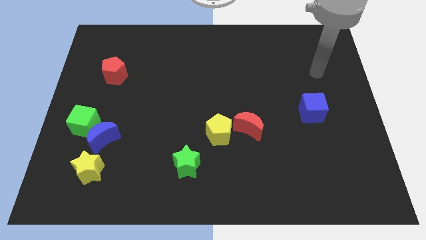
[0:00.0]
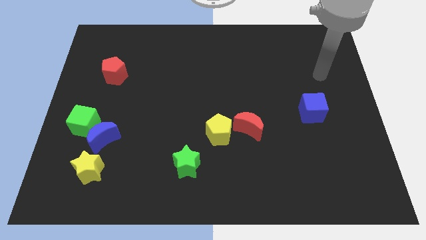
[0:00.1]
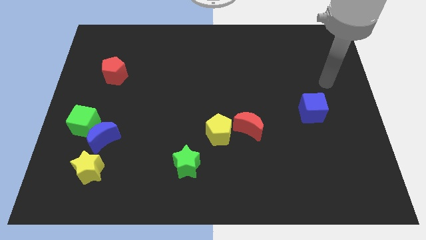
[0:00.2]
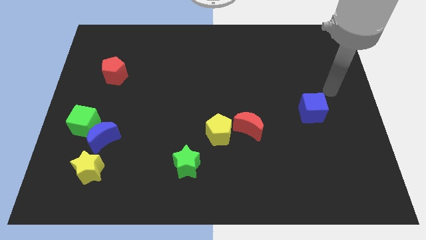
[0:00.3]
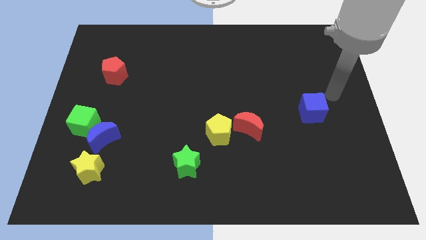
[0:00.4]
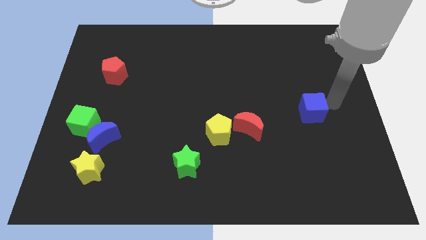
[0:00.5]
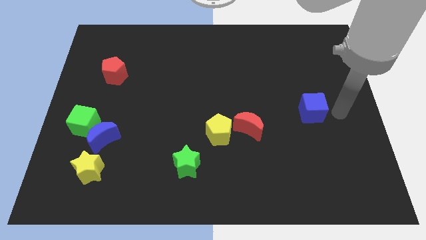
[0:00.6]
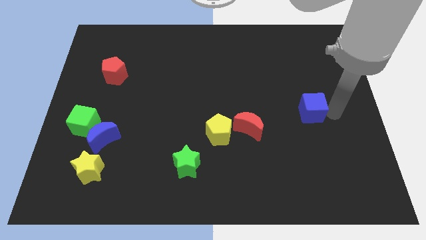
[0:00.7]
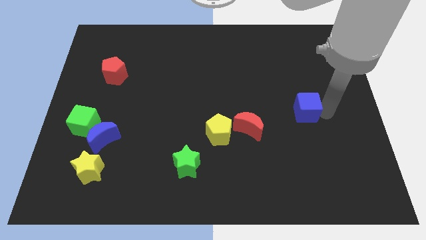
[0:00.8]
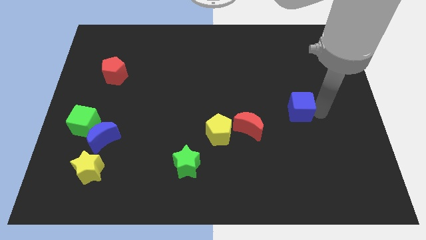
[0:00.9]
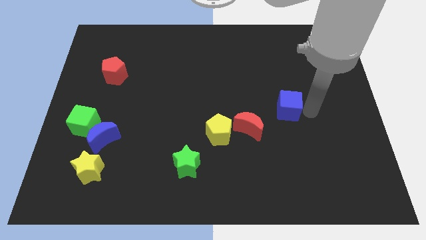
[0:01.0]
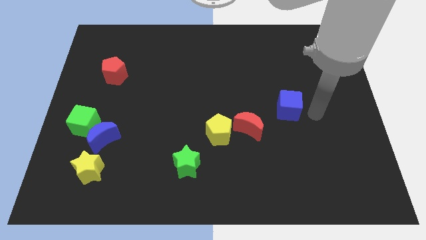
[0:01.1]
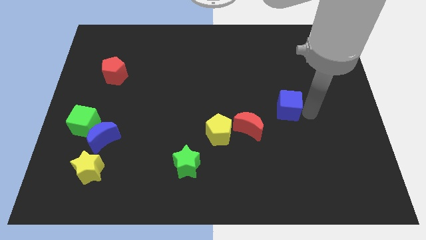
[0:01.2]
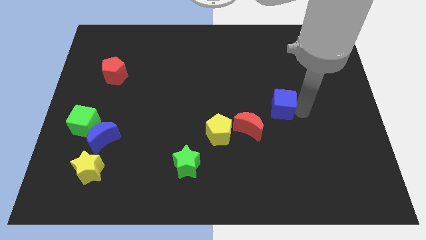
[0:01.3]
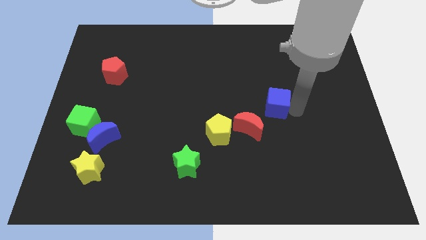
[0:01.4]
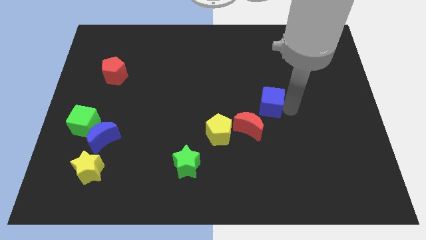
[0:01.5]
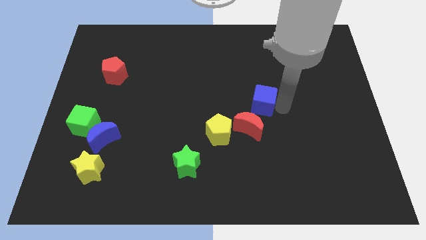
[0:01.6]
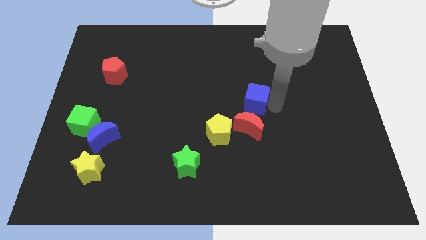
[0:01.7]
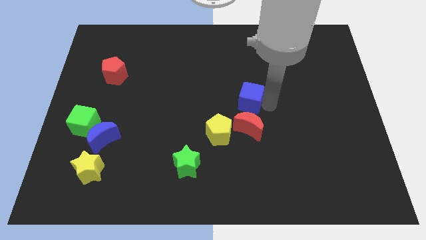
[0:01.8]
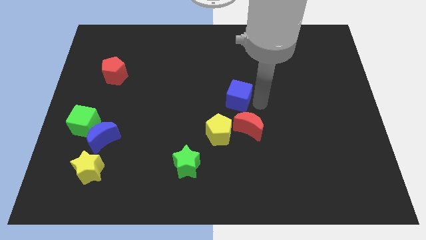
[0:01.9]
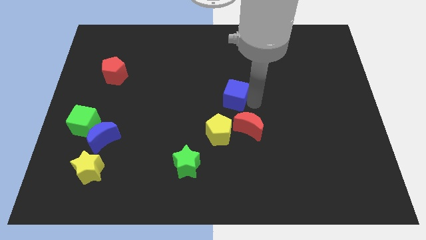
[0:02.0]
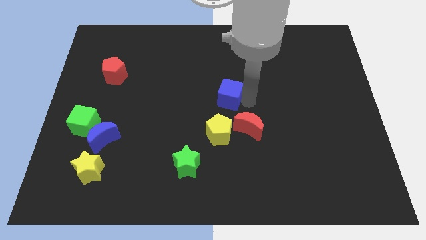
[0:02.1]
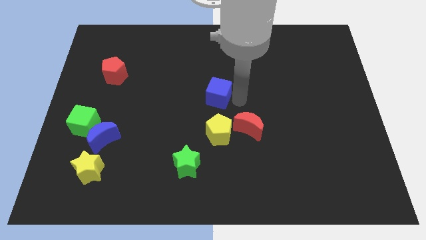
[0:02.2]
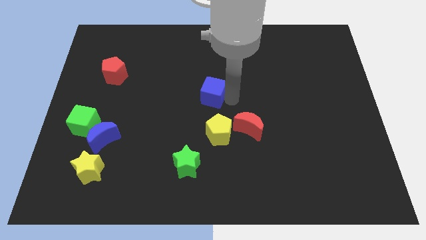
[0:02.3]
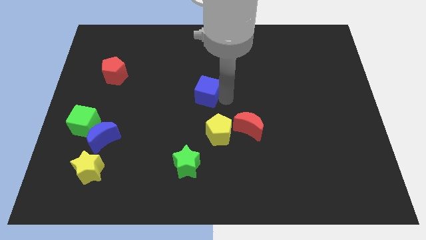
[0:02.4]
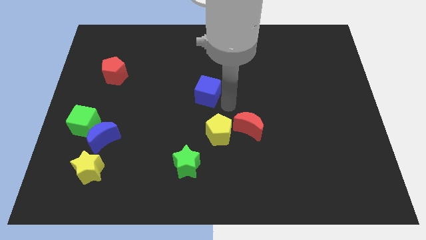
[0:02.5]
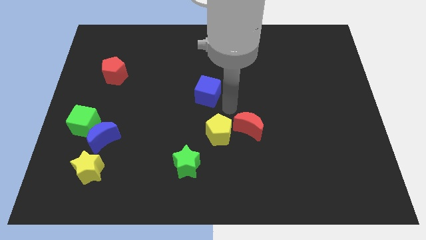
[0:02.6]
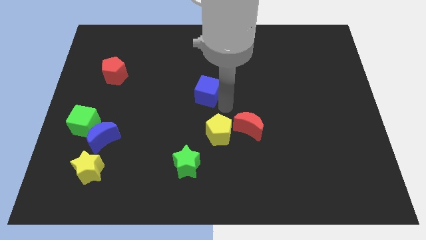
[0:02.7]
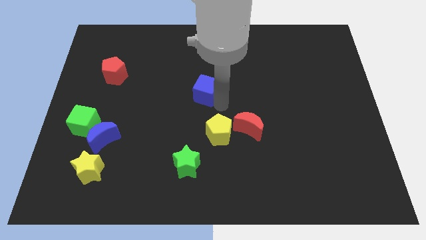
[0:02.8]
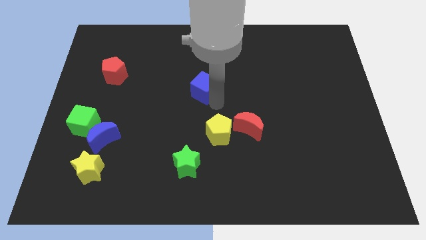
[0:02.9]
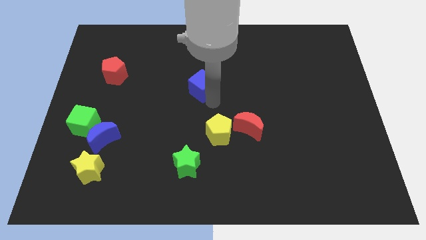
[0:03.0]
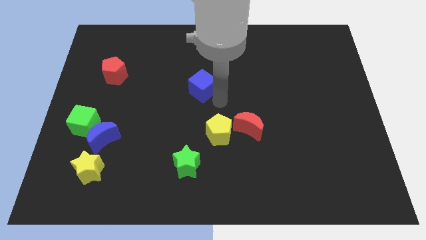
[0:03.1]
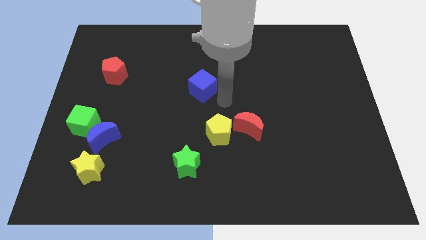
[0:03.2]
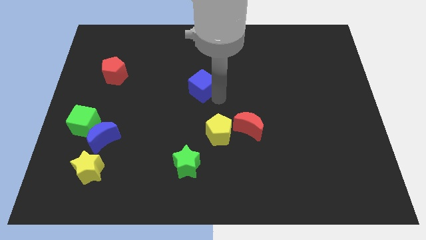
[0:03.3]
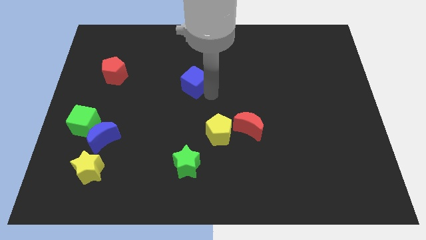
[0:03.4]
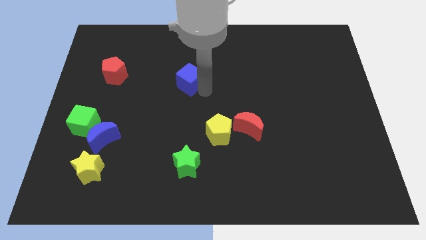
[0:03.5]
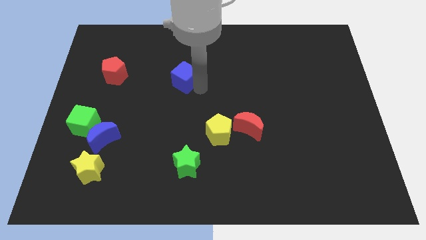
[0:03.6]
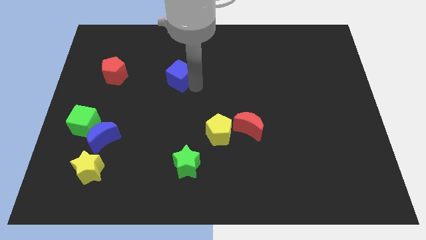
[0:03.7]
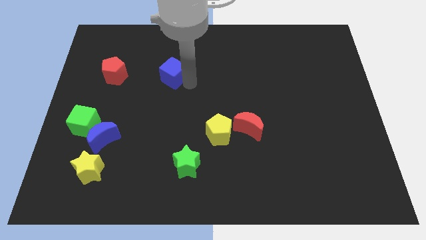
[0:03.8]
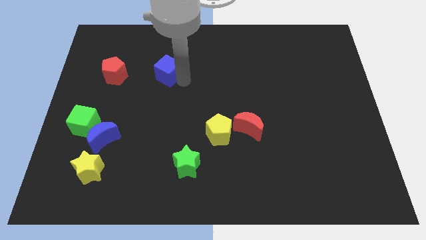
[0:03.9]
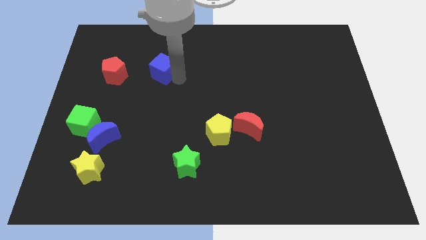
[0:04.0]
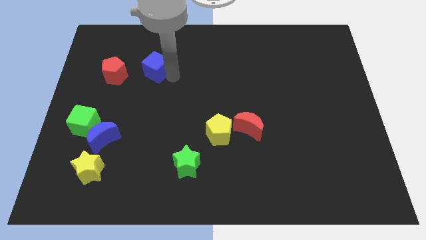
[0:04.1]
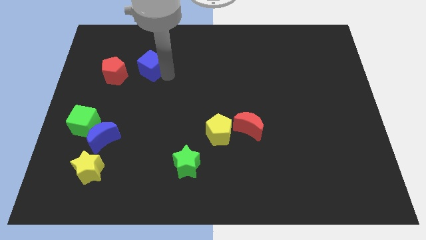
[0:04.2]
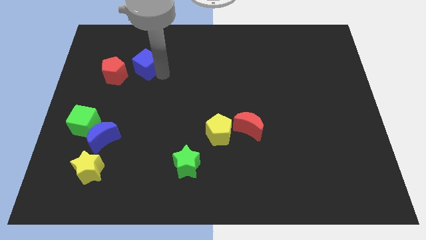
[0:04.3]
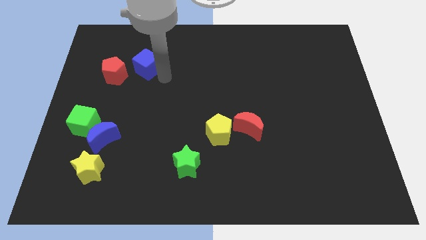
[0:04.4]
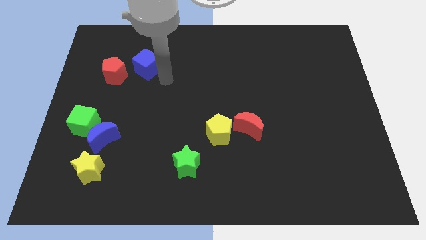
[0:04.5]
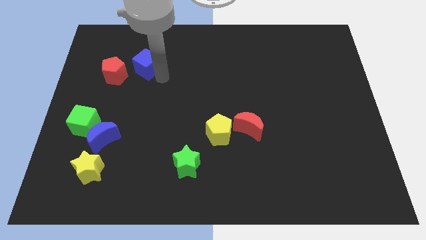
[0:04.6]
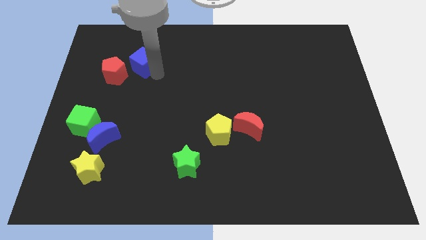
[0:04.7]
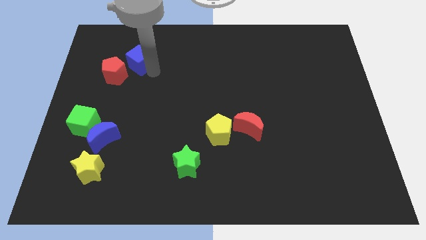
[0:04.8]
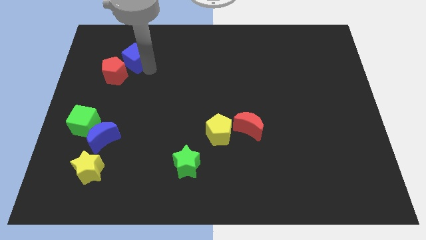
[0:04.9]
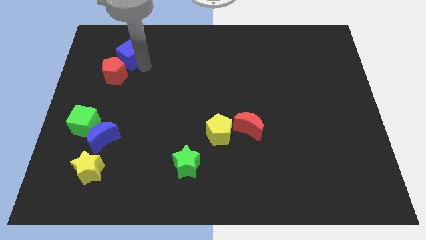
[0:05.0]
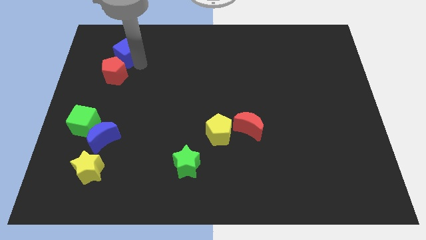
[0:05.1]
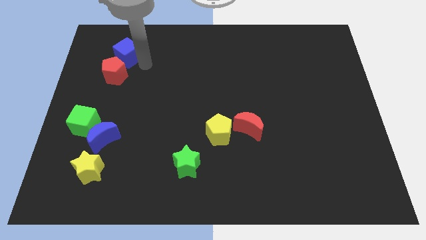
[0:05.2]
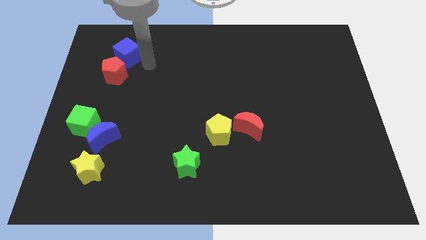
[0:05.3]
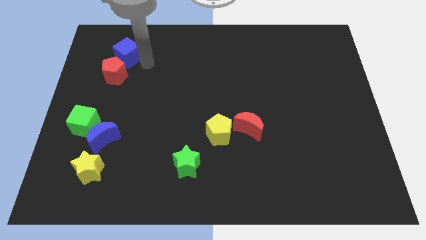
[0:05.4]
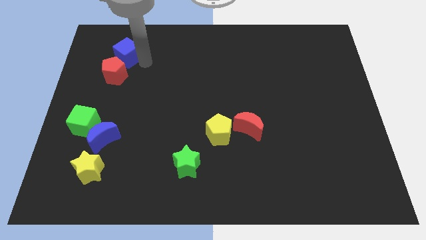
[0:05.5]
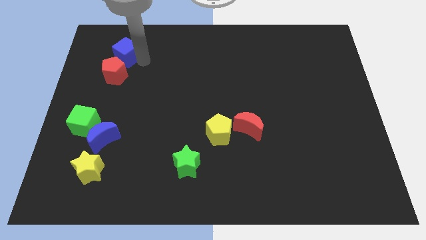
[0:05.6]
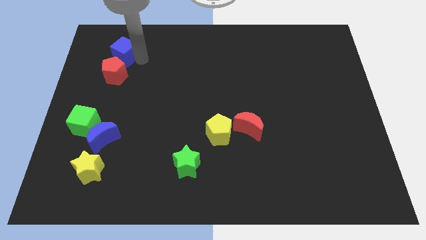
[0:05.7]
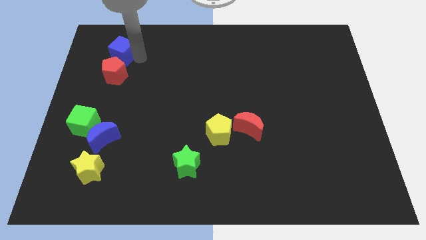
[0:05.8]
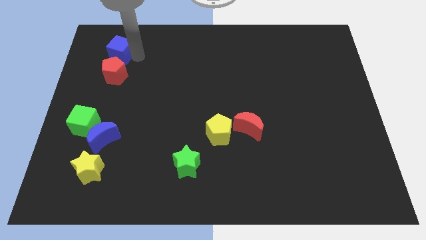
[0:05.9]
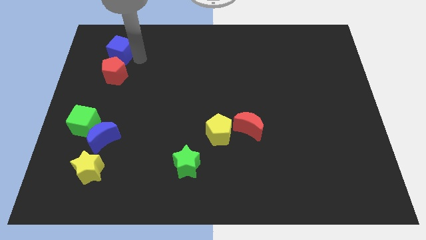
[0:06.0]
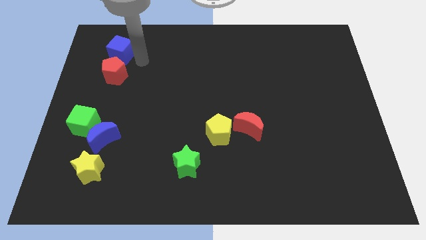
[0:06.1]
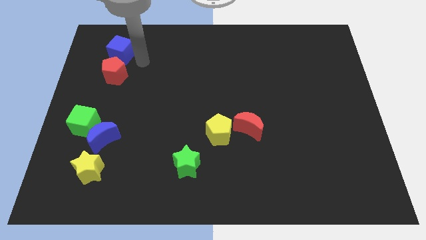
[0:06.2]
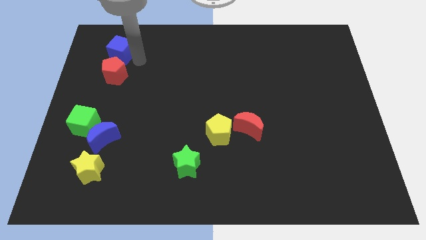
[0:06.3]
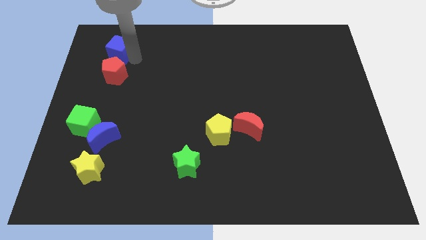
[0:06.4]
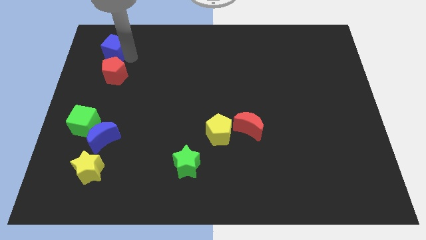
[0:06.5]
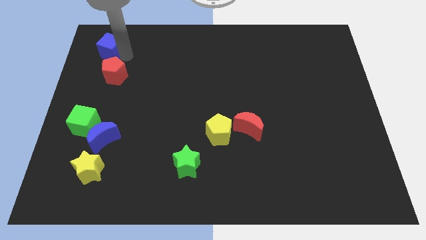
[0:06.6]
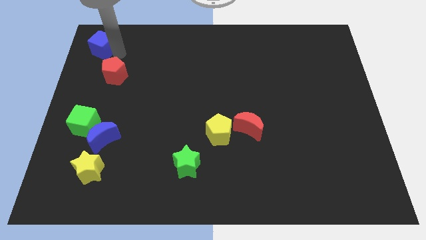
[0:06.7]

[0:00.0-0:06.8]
put the blue cube to the upper left corner
